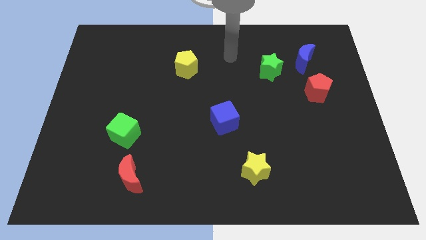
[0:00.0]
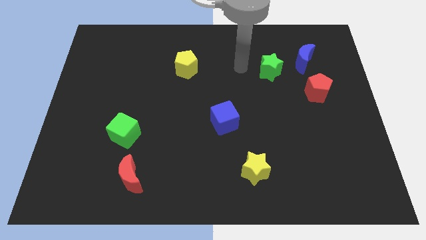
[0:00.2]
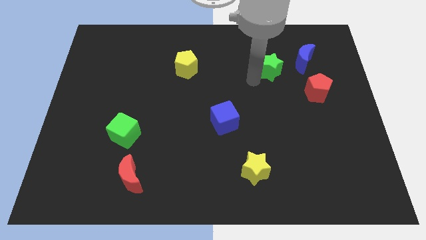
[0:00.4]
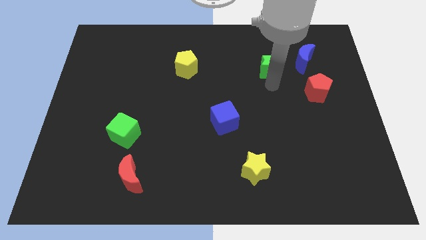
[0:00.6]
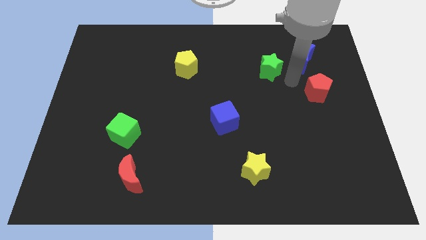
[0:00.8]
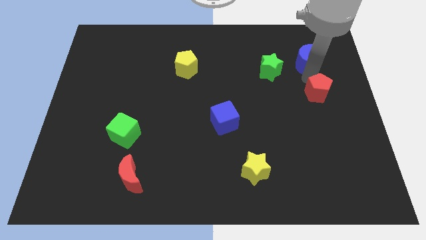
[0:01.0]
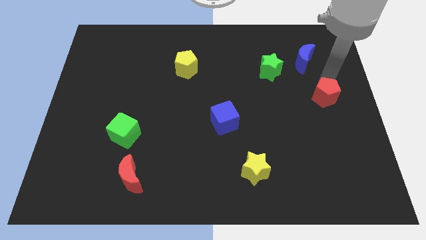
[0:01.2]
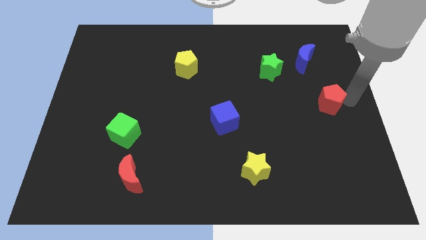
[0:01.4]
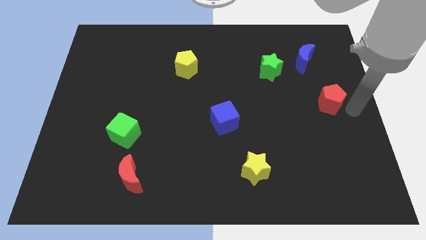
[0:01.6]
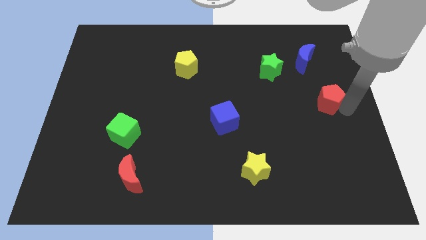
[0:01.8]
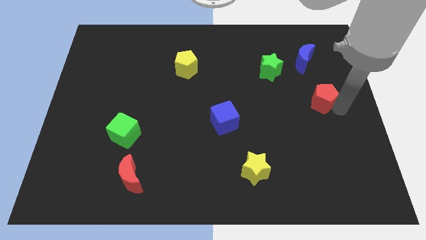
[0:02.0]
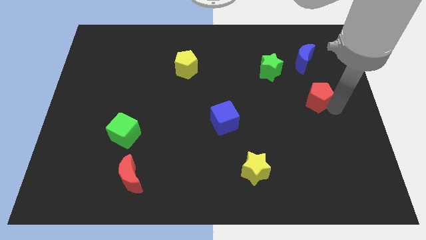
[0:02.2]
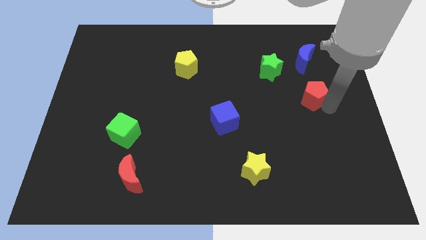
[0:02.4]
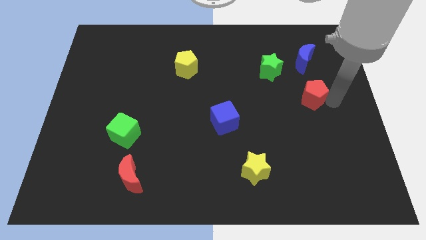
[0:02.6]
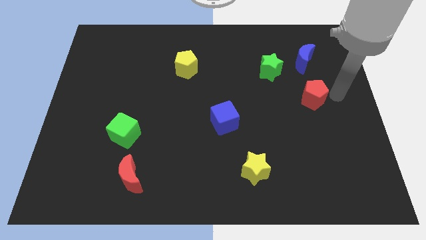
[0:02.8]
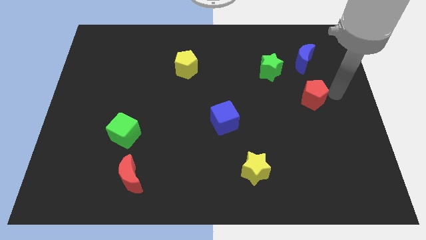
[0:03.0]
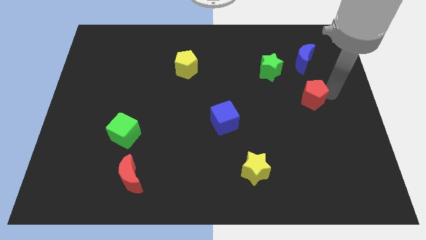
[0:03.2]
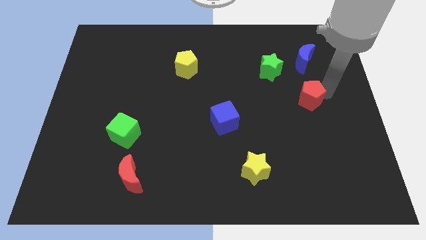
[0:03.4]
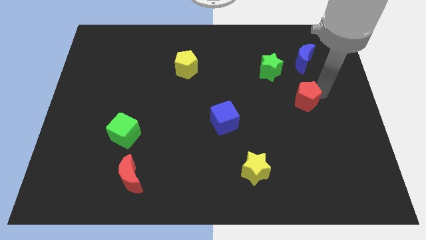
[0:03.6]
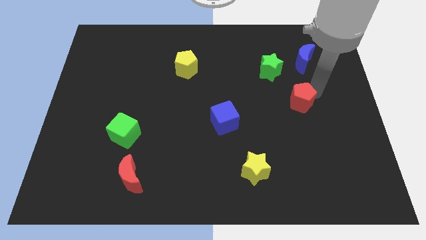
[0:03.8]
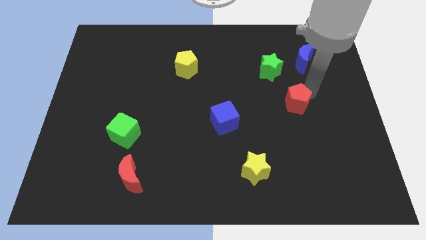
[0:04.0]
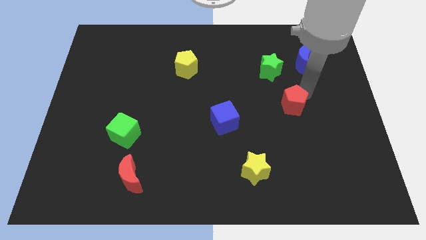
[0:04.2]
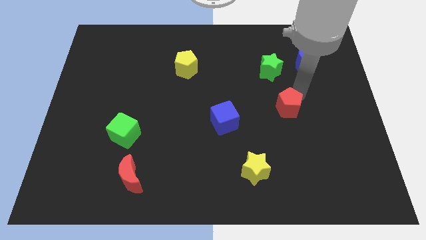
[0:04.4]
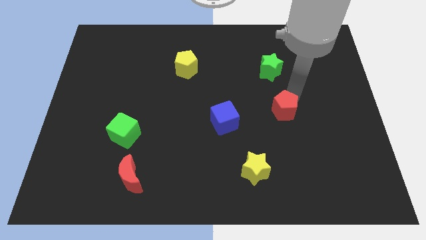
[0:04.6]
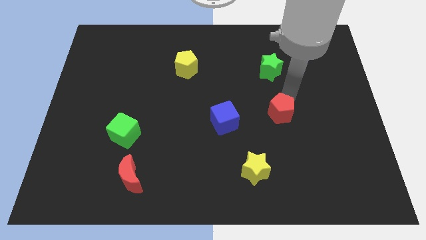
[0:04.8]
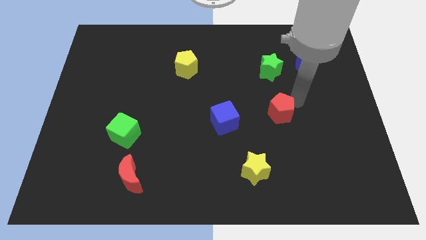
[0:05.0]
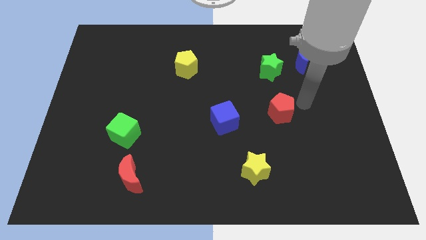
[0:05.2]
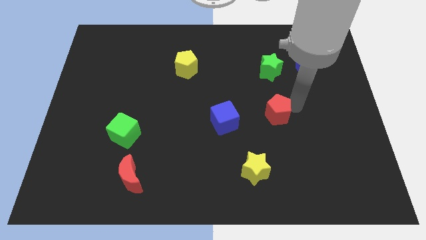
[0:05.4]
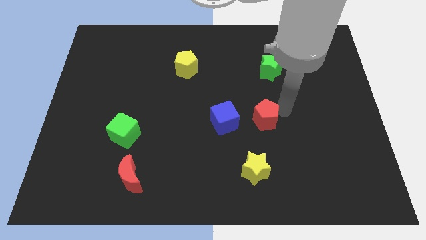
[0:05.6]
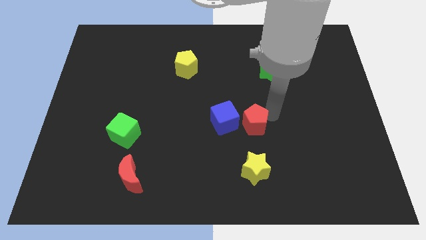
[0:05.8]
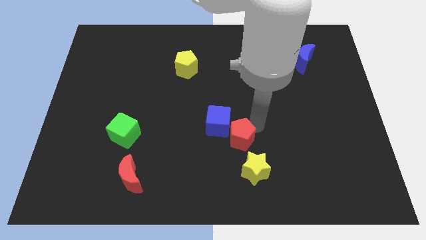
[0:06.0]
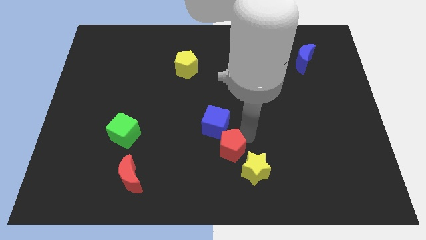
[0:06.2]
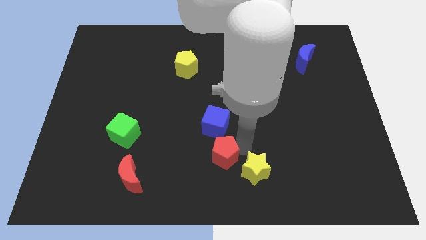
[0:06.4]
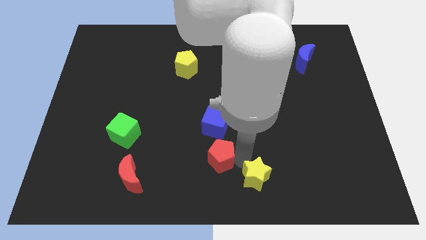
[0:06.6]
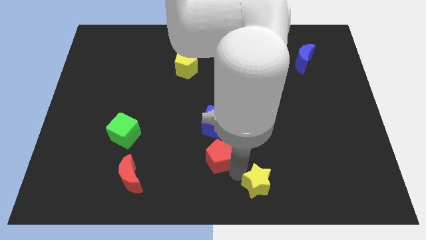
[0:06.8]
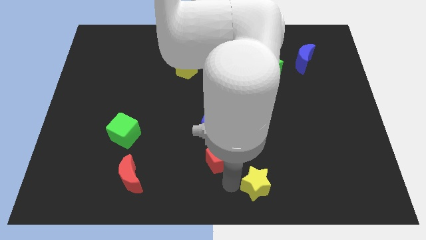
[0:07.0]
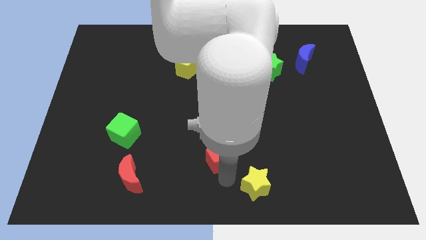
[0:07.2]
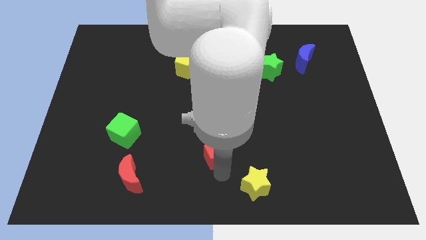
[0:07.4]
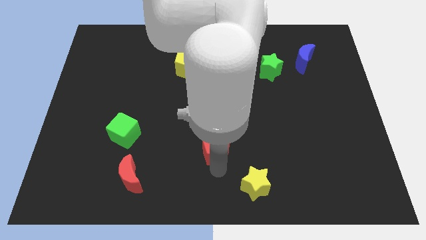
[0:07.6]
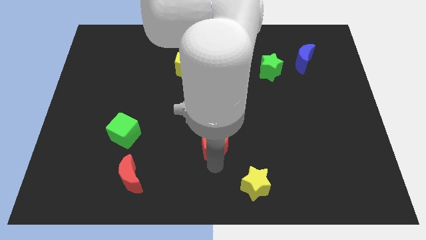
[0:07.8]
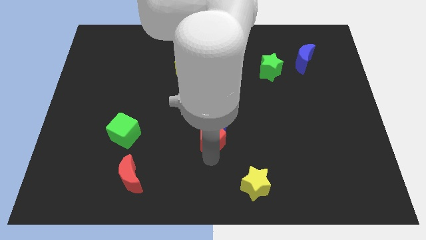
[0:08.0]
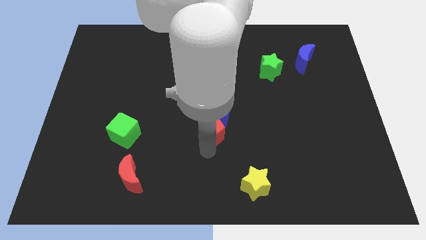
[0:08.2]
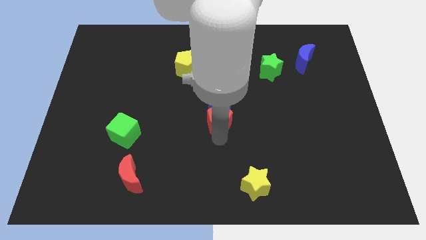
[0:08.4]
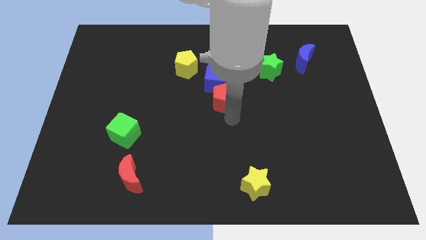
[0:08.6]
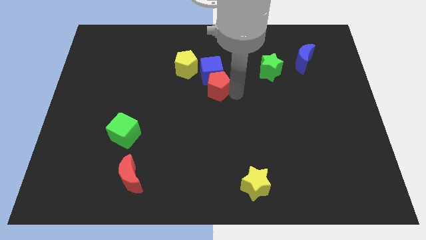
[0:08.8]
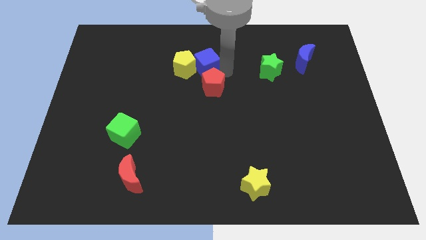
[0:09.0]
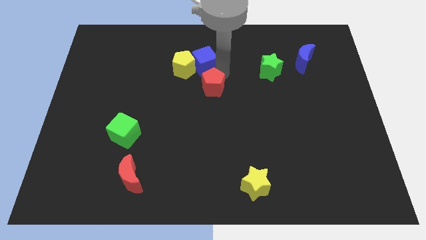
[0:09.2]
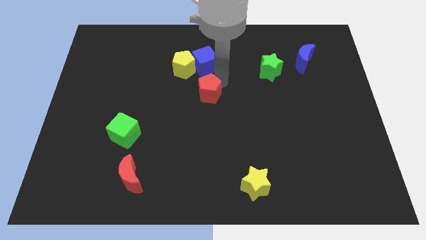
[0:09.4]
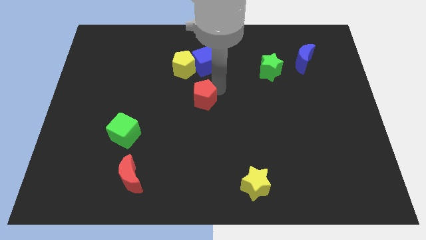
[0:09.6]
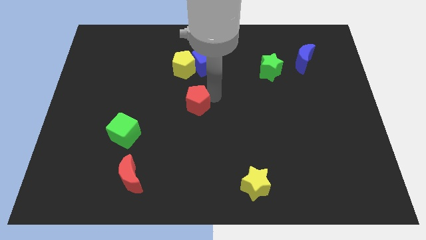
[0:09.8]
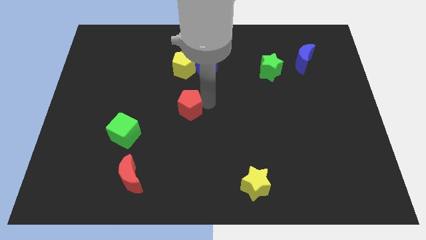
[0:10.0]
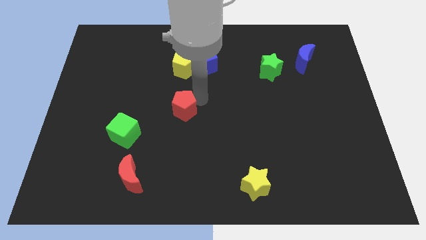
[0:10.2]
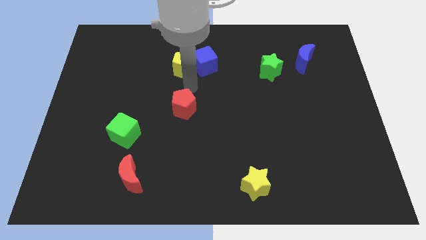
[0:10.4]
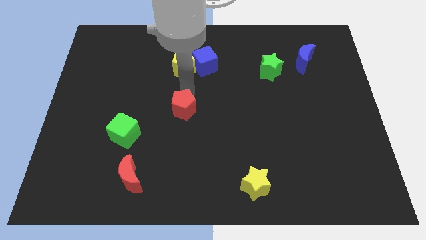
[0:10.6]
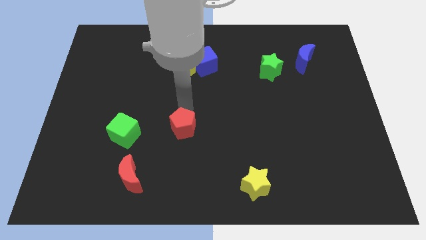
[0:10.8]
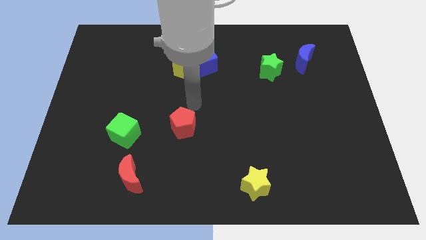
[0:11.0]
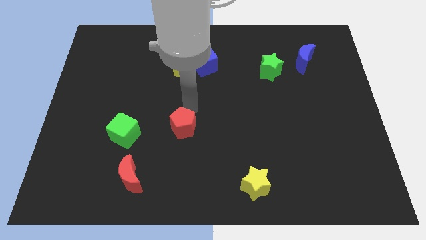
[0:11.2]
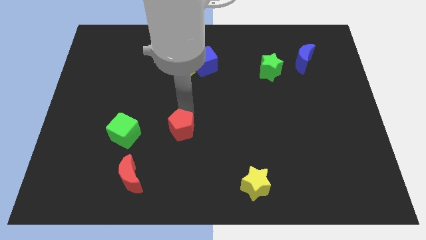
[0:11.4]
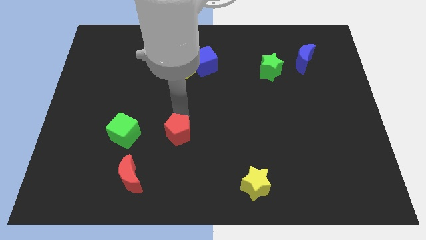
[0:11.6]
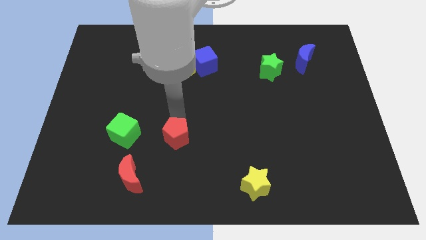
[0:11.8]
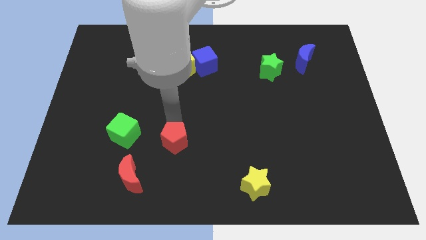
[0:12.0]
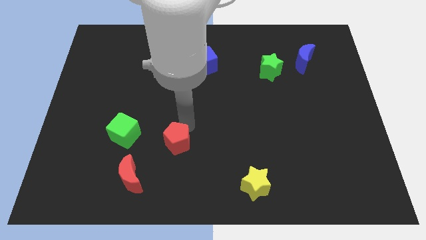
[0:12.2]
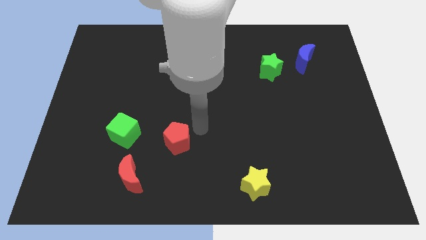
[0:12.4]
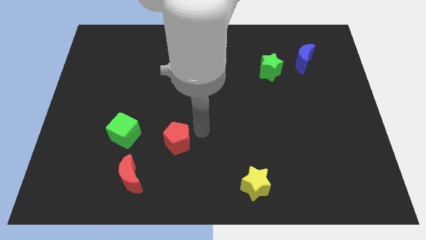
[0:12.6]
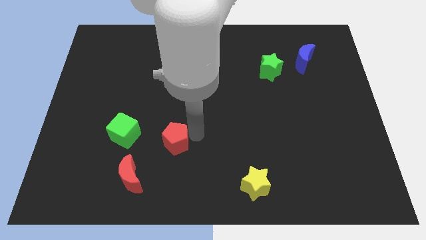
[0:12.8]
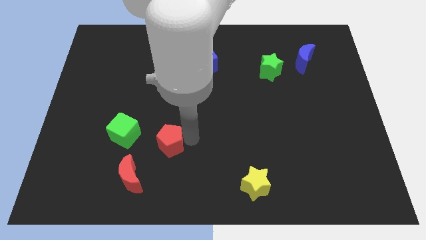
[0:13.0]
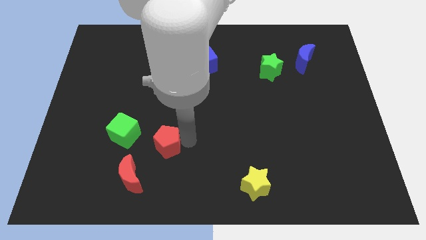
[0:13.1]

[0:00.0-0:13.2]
put the red pentagon to the bottom right side of the green cube
